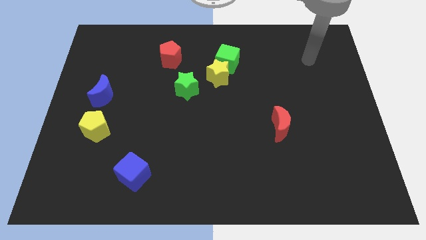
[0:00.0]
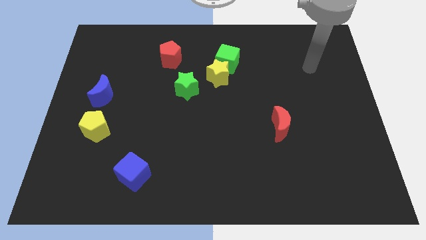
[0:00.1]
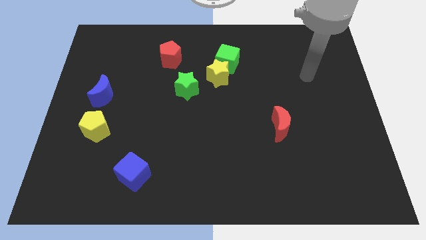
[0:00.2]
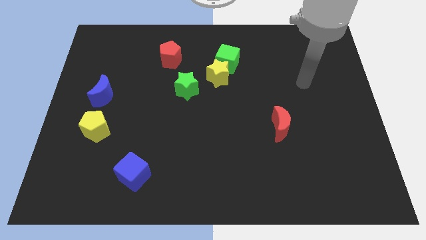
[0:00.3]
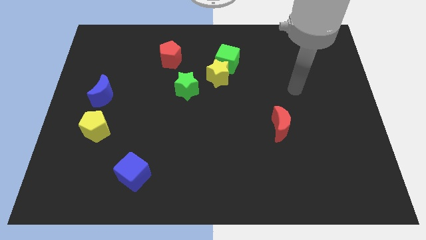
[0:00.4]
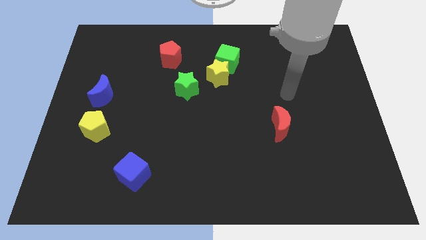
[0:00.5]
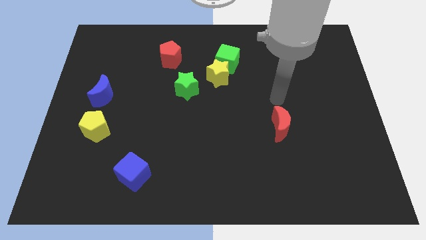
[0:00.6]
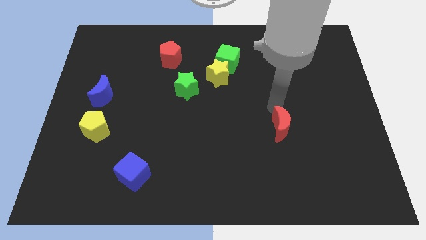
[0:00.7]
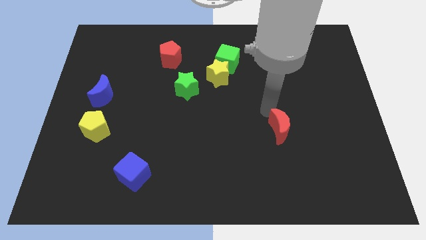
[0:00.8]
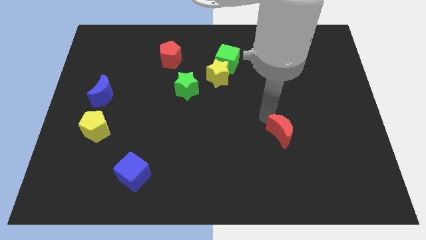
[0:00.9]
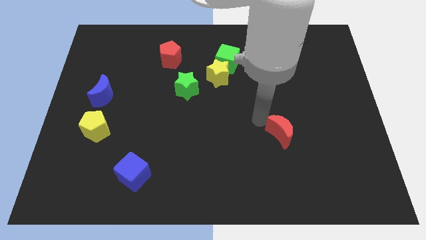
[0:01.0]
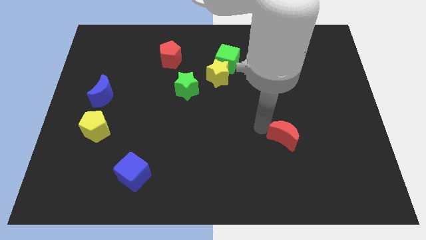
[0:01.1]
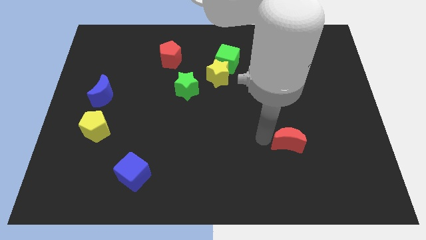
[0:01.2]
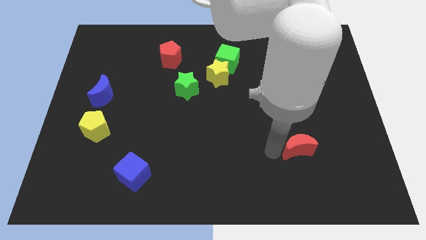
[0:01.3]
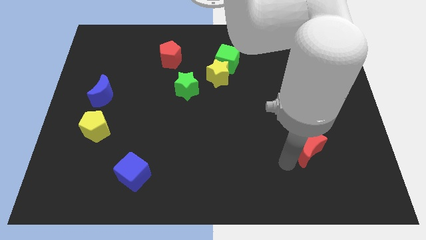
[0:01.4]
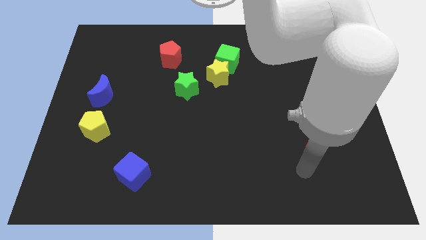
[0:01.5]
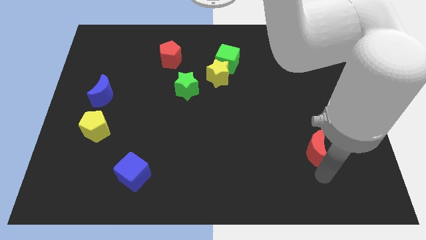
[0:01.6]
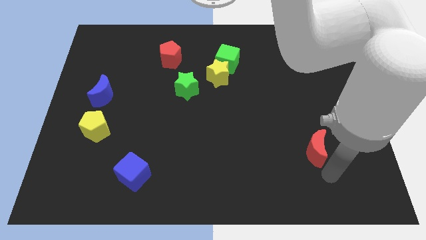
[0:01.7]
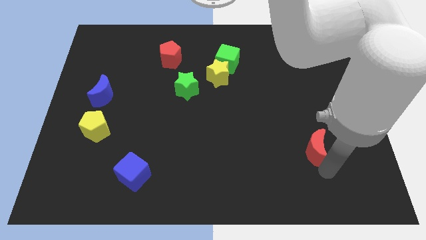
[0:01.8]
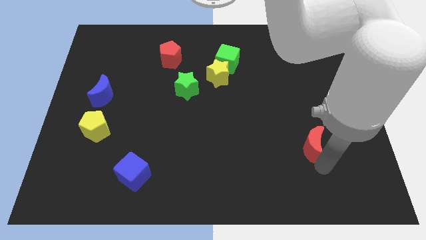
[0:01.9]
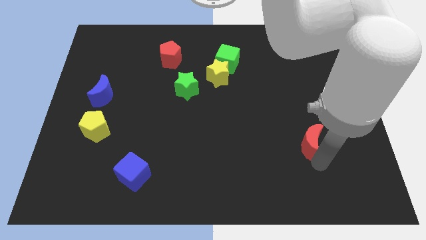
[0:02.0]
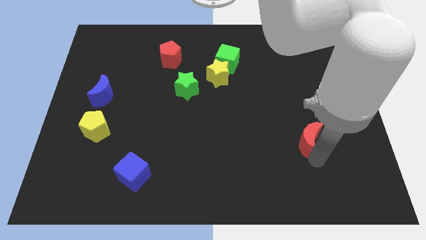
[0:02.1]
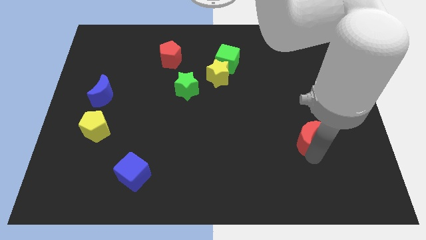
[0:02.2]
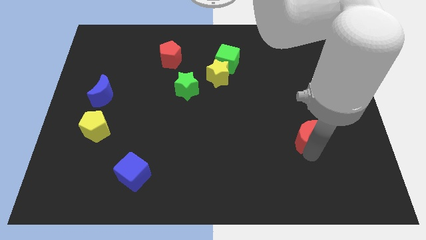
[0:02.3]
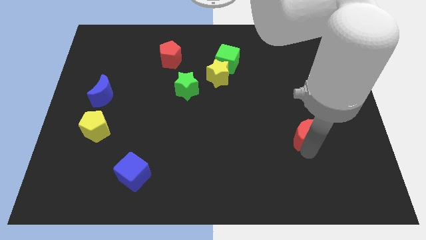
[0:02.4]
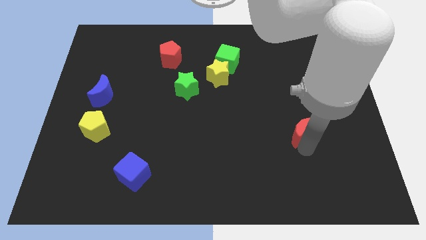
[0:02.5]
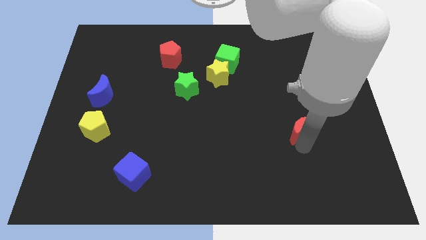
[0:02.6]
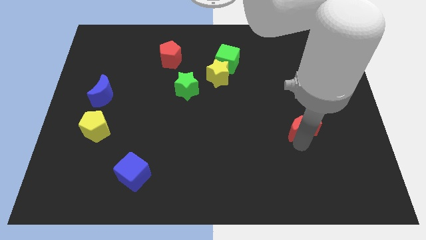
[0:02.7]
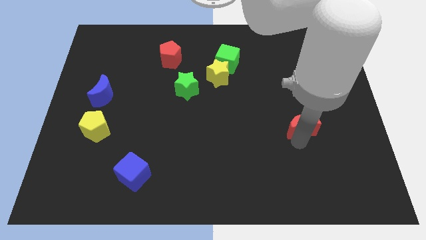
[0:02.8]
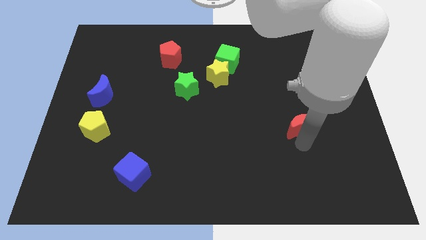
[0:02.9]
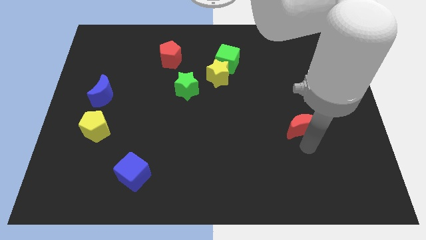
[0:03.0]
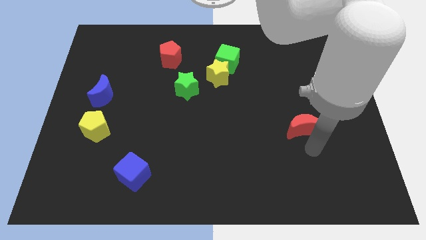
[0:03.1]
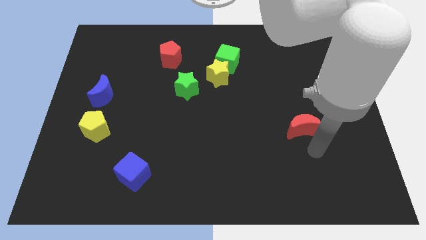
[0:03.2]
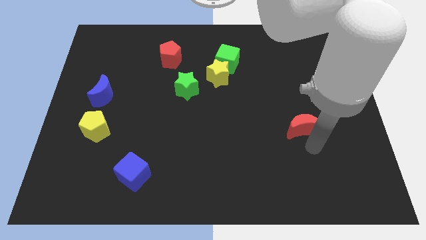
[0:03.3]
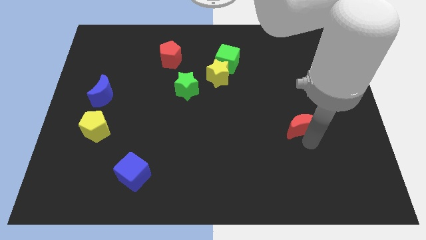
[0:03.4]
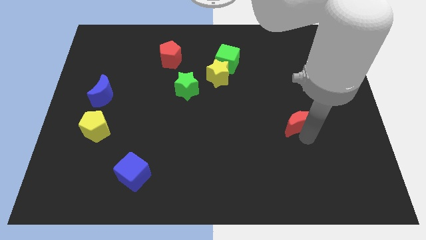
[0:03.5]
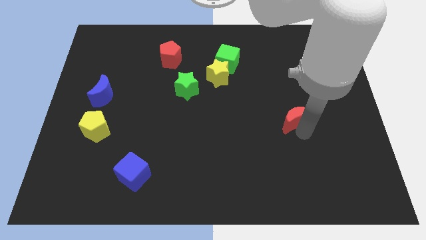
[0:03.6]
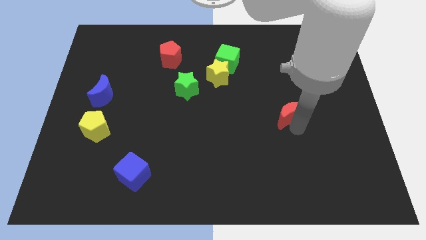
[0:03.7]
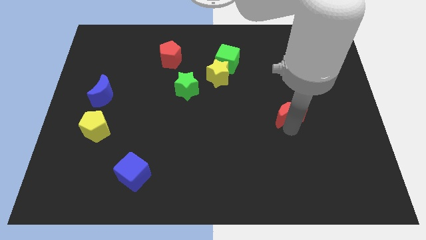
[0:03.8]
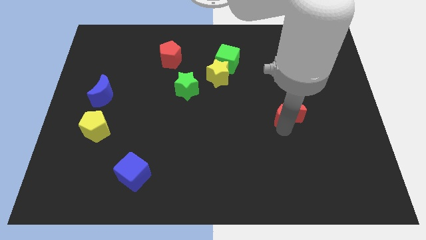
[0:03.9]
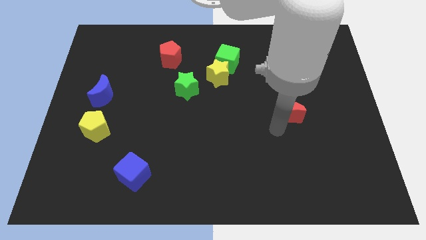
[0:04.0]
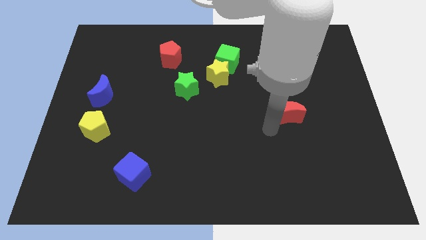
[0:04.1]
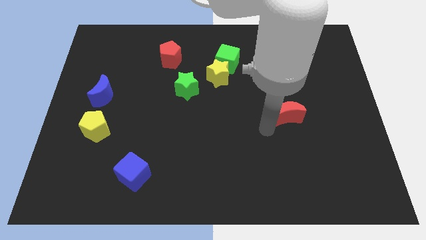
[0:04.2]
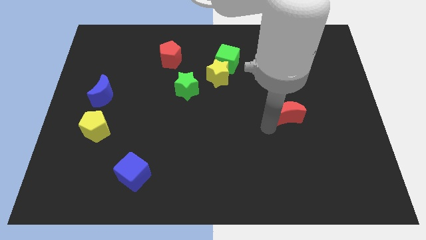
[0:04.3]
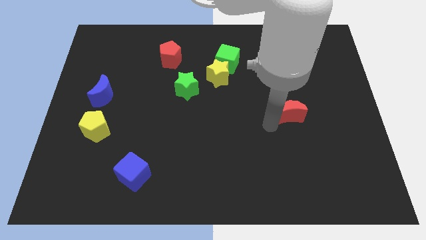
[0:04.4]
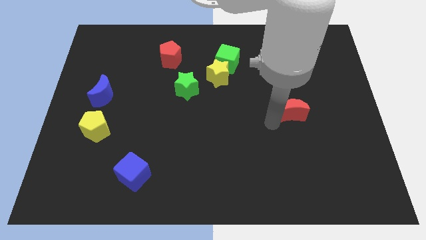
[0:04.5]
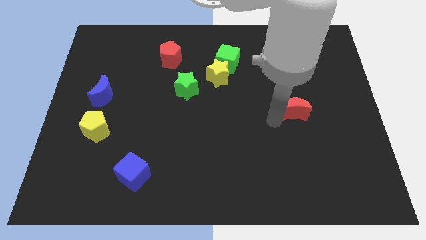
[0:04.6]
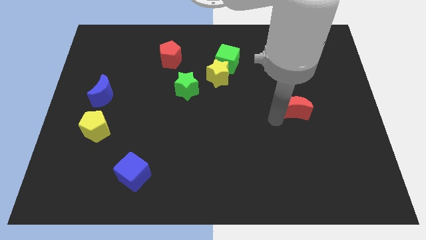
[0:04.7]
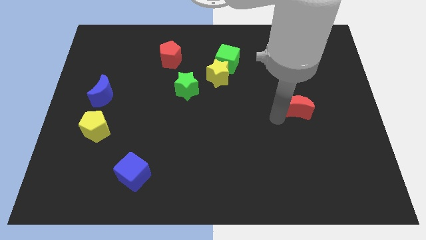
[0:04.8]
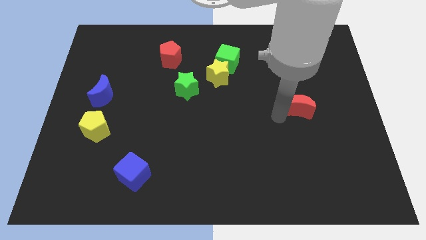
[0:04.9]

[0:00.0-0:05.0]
slightly push the red moon up and then to the right

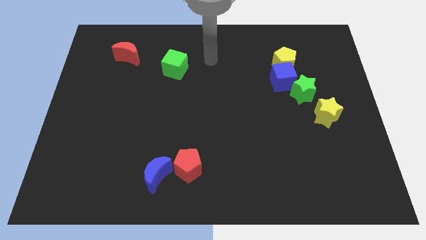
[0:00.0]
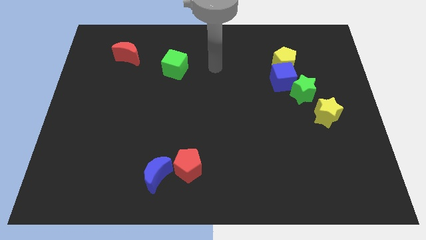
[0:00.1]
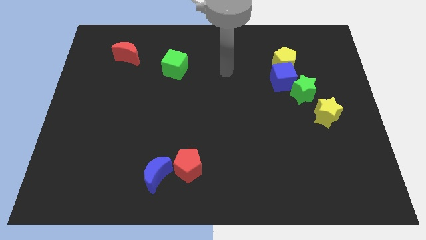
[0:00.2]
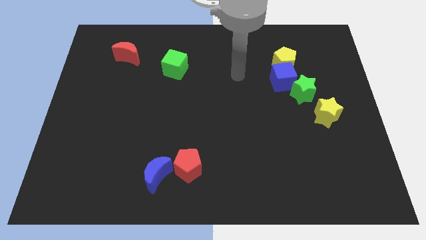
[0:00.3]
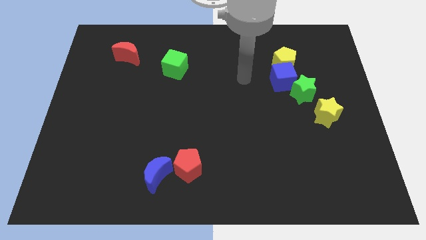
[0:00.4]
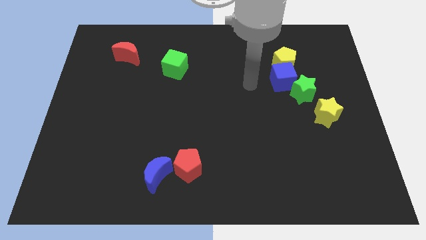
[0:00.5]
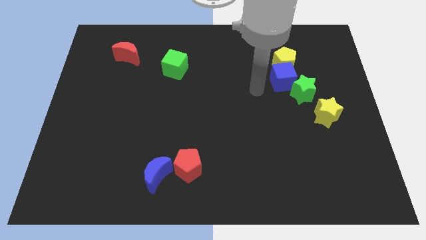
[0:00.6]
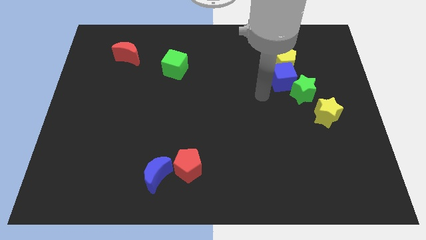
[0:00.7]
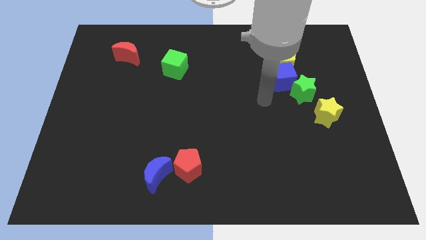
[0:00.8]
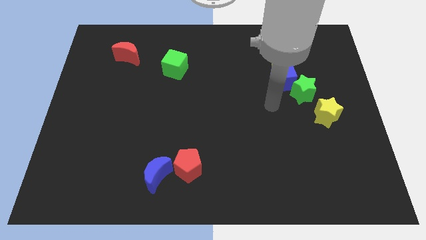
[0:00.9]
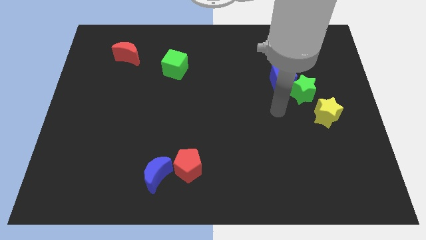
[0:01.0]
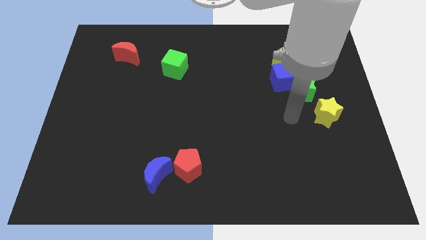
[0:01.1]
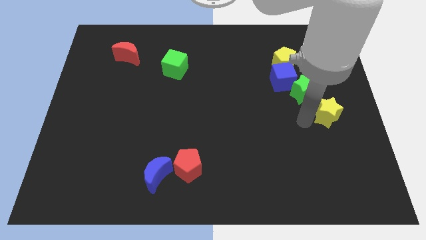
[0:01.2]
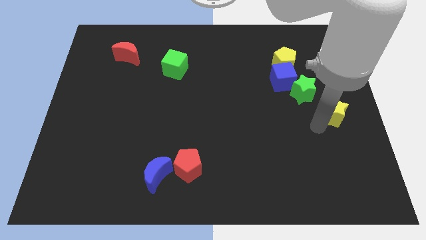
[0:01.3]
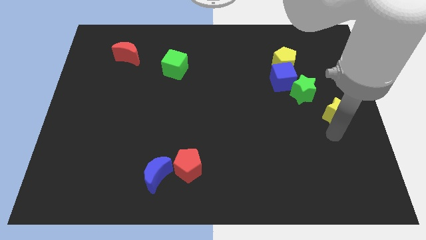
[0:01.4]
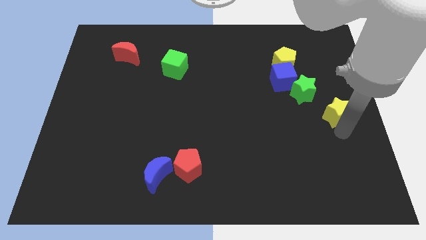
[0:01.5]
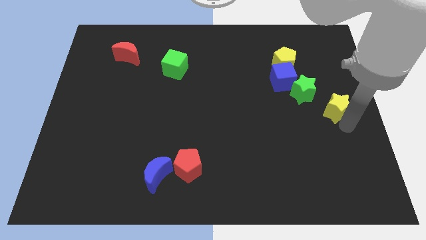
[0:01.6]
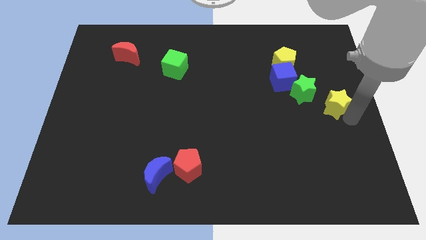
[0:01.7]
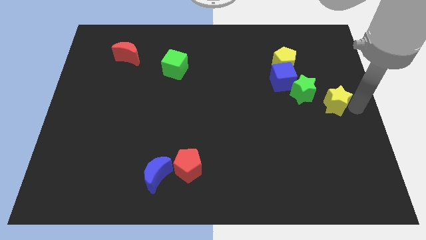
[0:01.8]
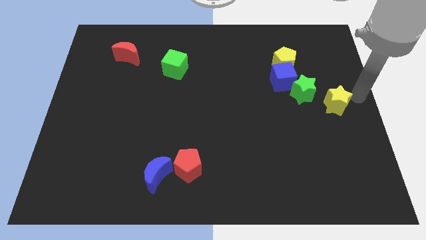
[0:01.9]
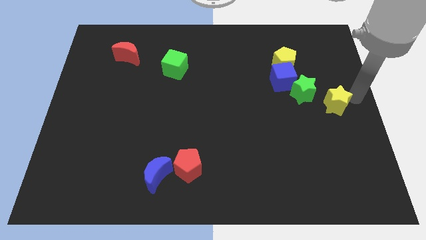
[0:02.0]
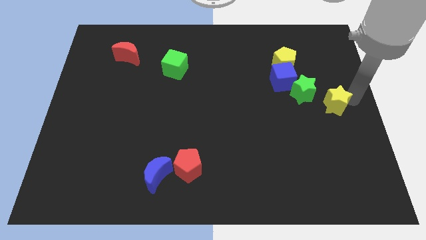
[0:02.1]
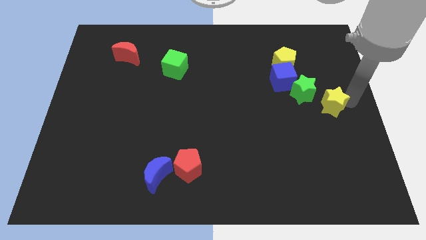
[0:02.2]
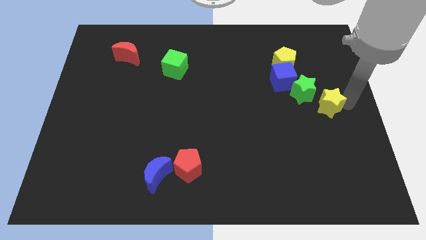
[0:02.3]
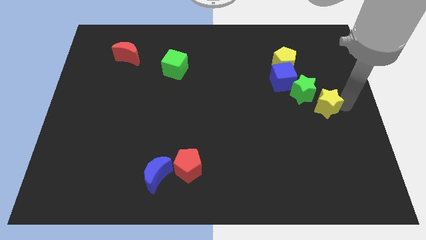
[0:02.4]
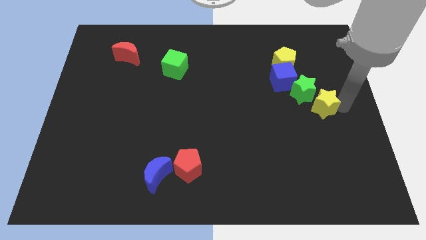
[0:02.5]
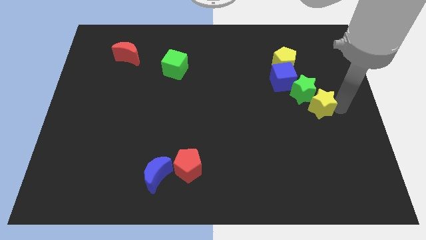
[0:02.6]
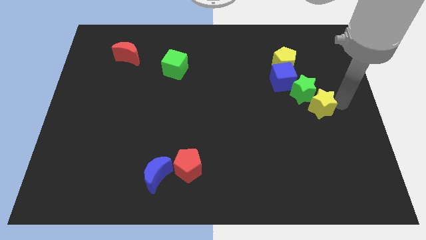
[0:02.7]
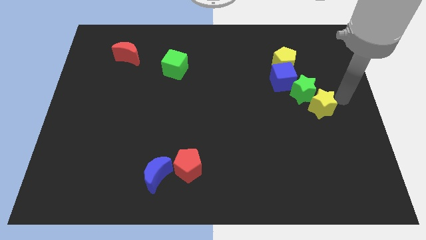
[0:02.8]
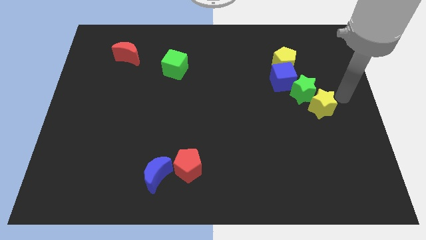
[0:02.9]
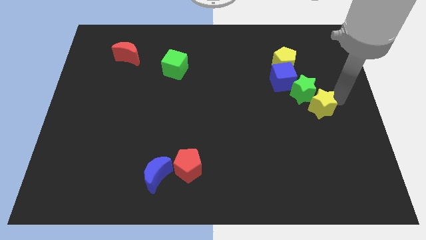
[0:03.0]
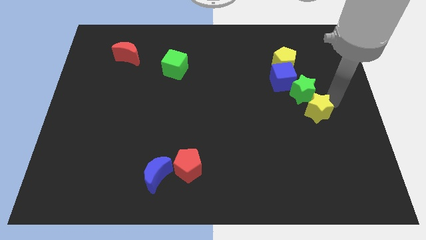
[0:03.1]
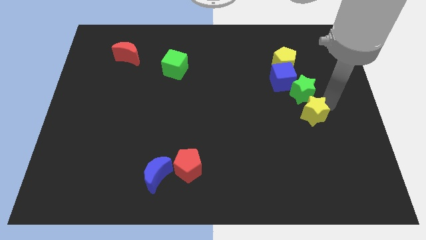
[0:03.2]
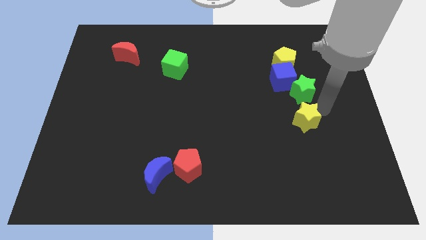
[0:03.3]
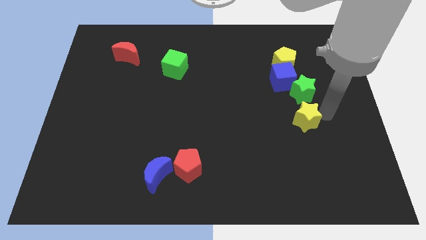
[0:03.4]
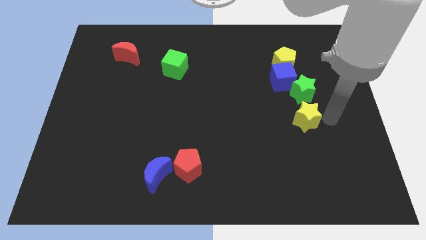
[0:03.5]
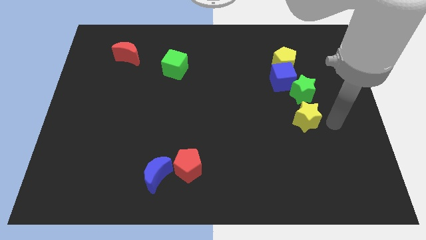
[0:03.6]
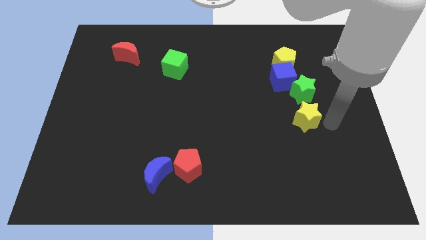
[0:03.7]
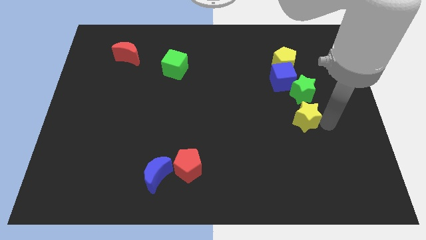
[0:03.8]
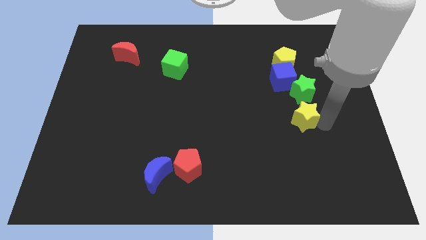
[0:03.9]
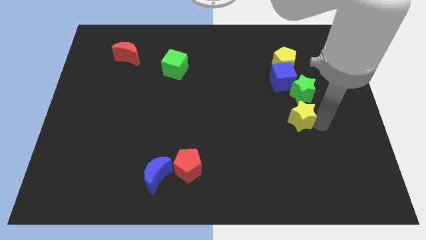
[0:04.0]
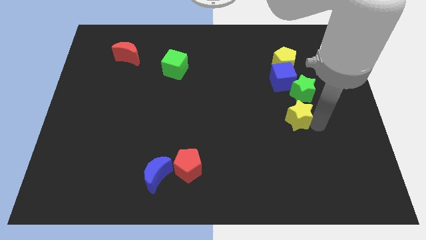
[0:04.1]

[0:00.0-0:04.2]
slide the yellow star slightly left
